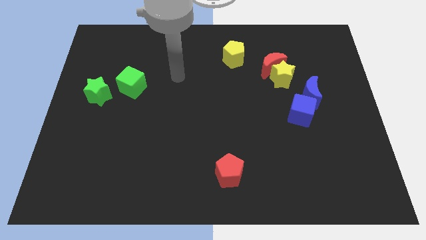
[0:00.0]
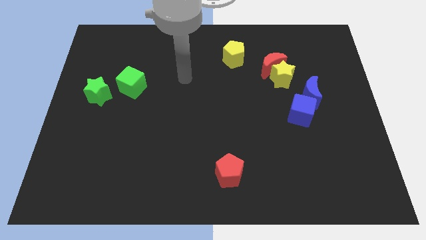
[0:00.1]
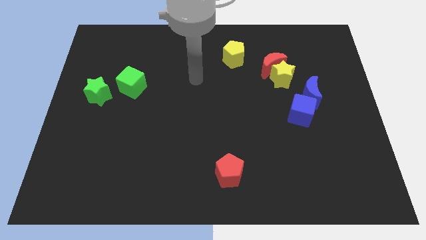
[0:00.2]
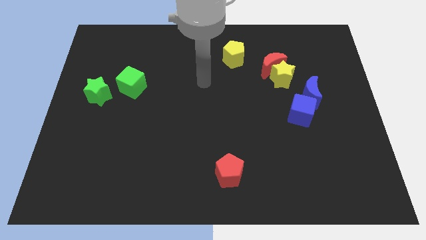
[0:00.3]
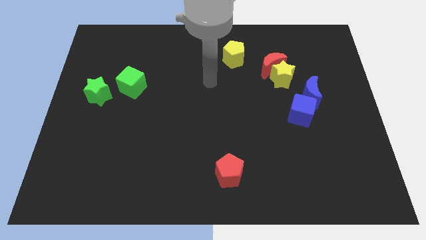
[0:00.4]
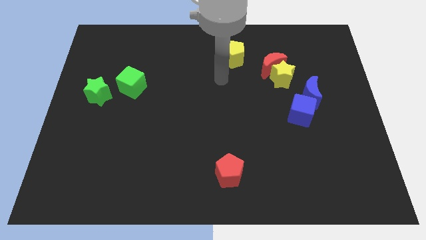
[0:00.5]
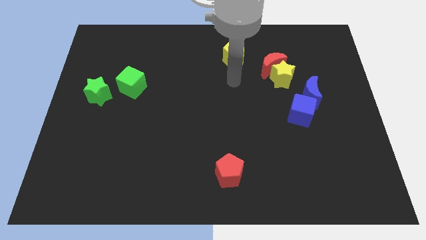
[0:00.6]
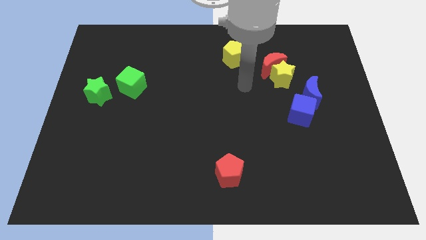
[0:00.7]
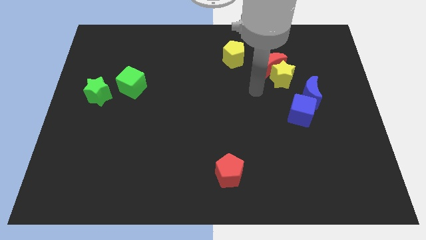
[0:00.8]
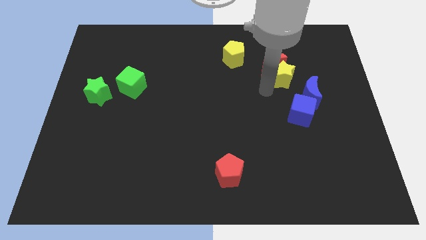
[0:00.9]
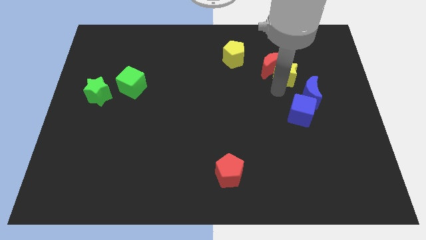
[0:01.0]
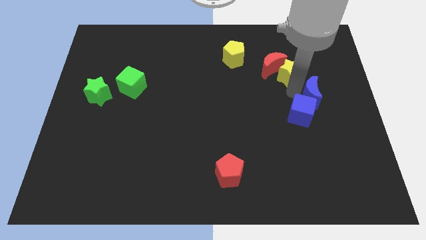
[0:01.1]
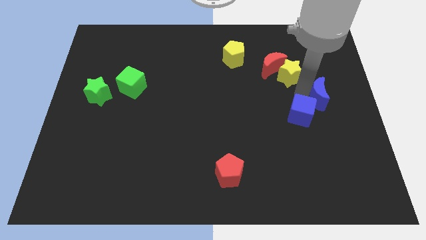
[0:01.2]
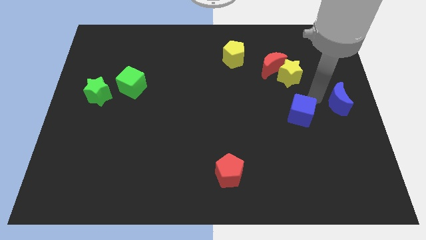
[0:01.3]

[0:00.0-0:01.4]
move the blue cube away from the blue moon

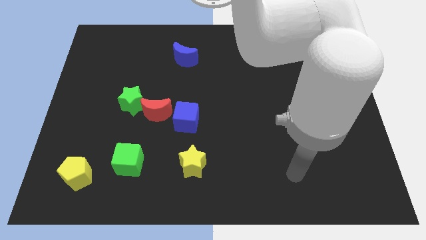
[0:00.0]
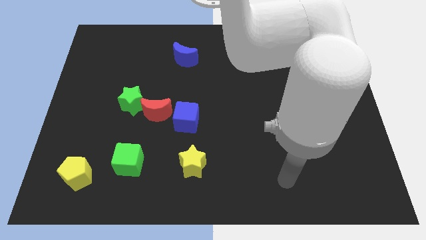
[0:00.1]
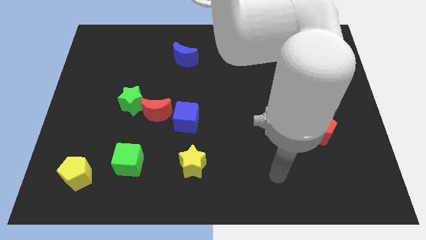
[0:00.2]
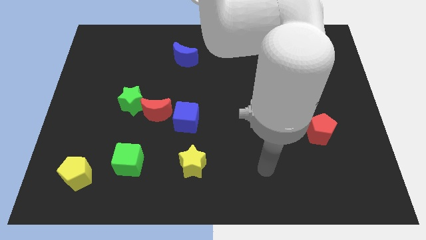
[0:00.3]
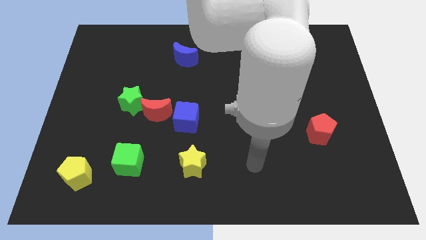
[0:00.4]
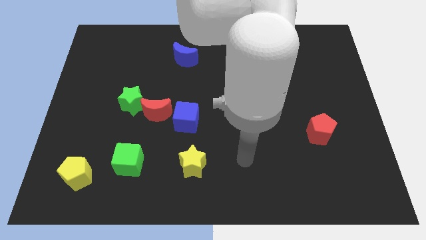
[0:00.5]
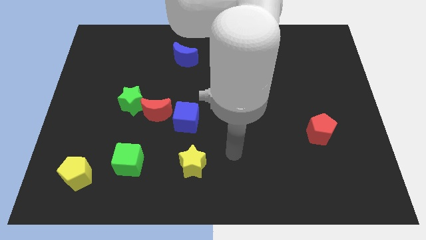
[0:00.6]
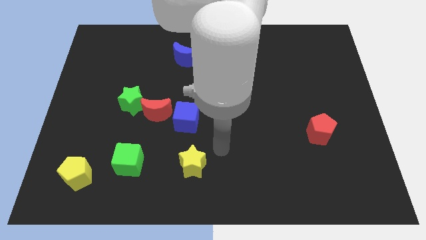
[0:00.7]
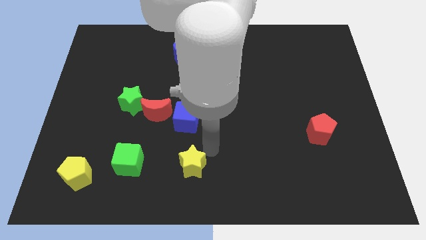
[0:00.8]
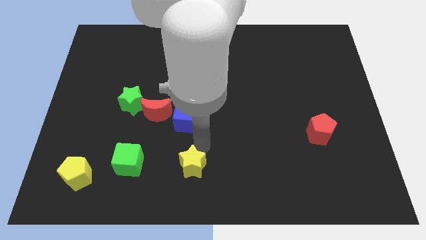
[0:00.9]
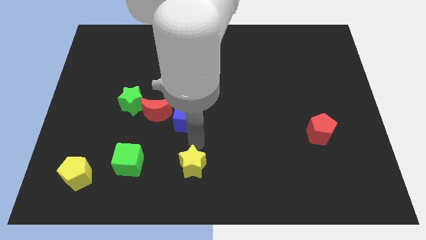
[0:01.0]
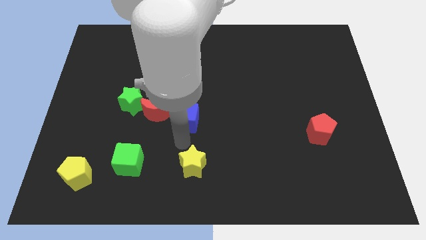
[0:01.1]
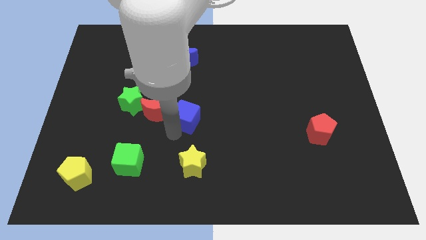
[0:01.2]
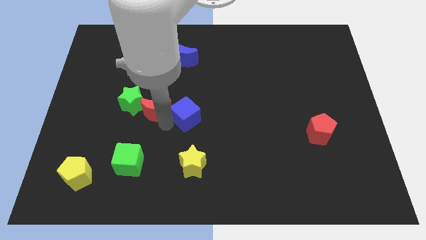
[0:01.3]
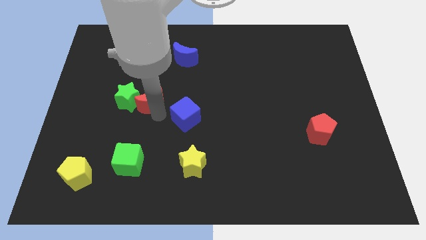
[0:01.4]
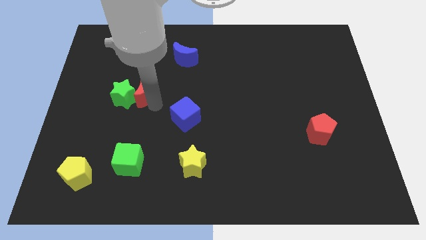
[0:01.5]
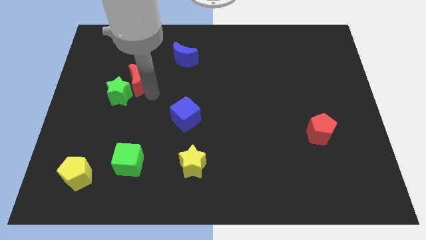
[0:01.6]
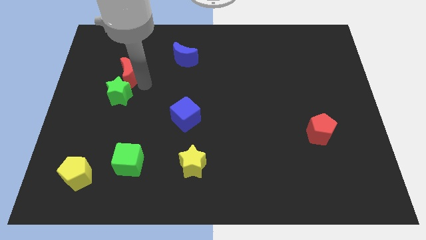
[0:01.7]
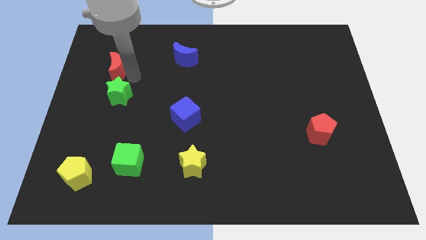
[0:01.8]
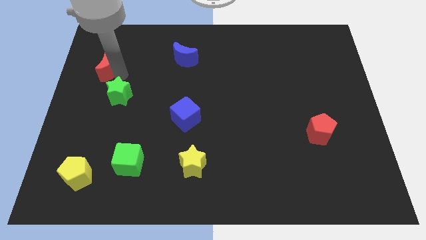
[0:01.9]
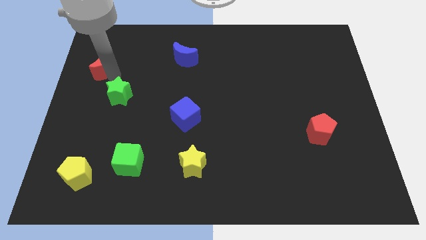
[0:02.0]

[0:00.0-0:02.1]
move the green star away from the red moon

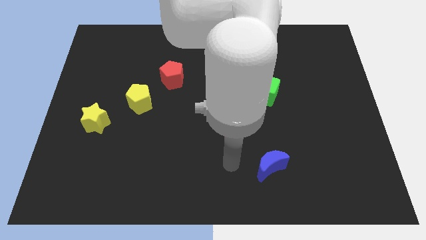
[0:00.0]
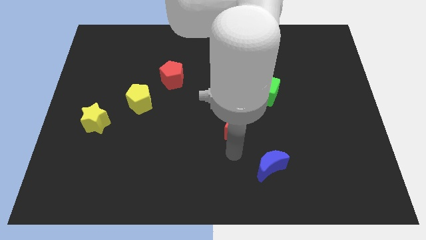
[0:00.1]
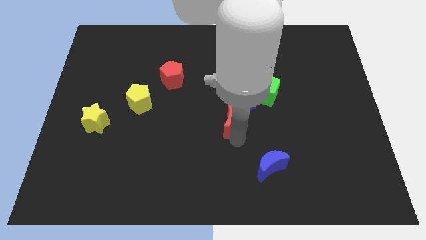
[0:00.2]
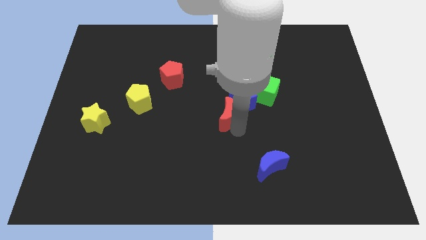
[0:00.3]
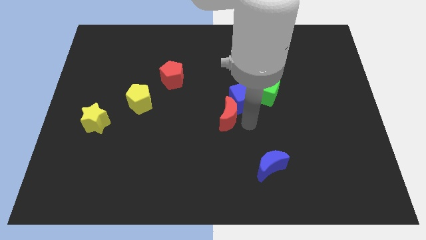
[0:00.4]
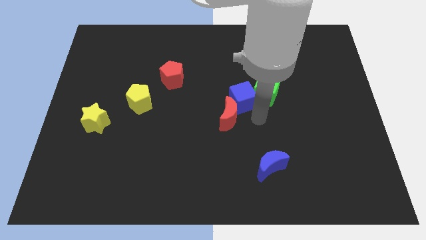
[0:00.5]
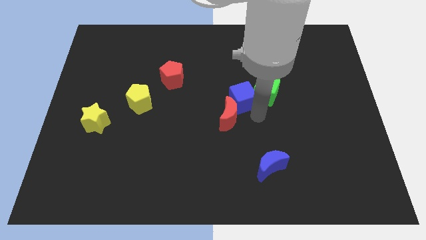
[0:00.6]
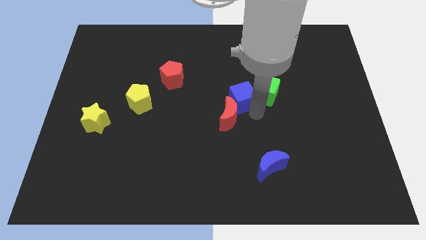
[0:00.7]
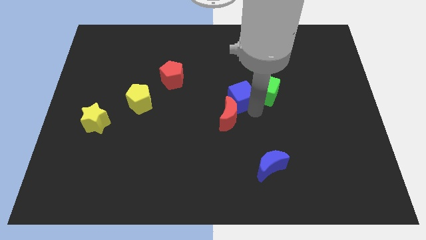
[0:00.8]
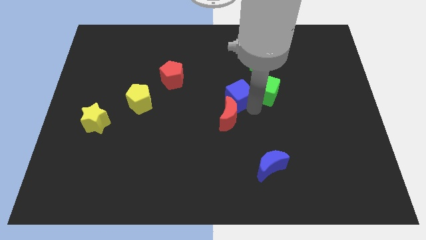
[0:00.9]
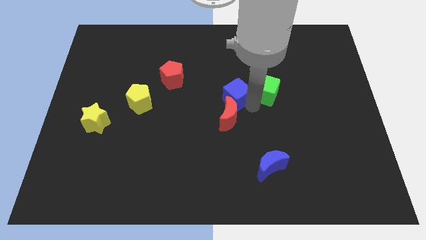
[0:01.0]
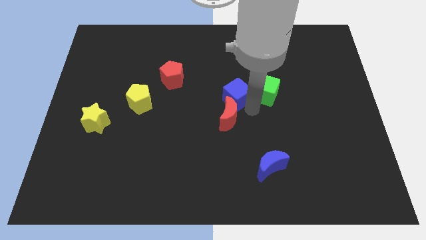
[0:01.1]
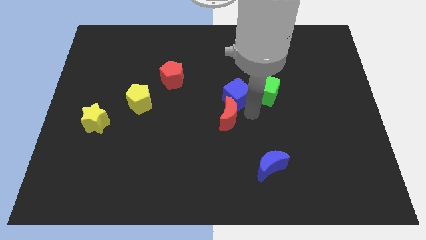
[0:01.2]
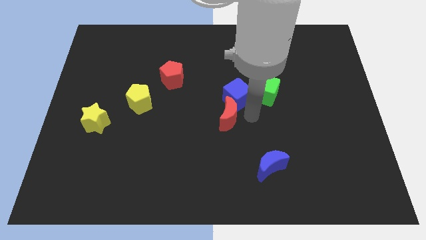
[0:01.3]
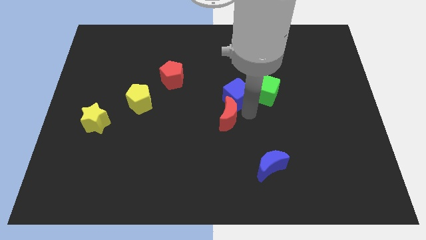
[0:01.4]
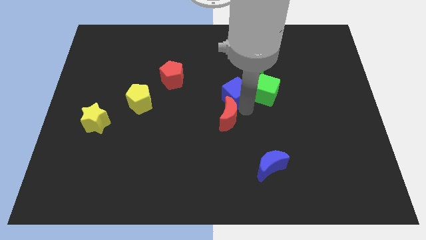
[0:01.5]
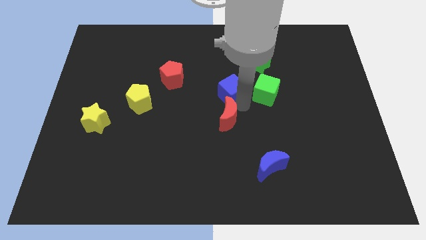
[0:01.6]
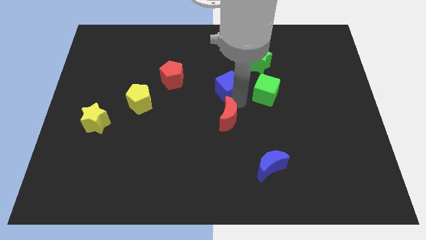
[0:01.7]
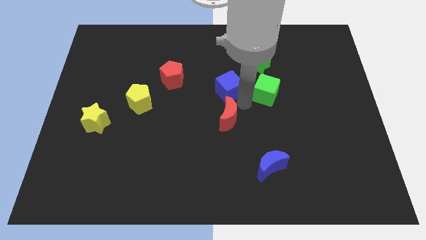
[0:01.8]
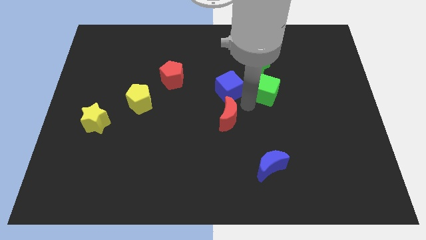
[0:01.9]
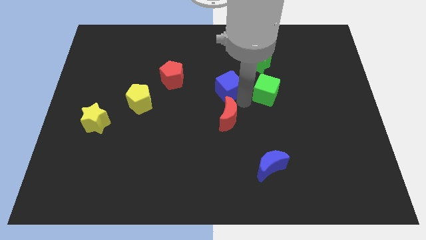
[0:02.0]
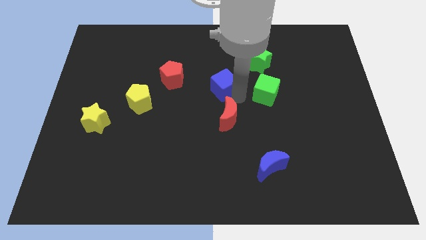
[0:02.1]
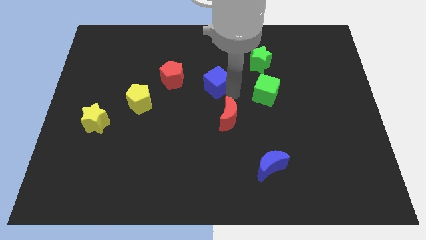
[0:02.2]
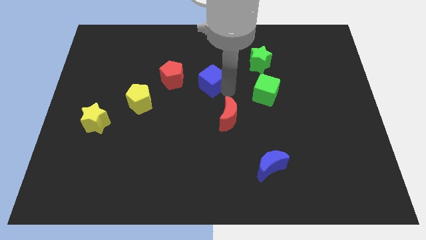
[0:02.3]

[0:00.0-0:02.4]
separate the blue cube from the green cube and red moon

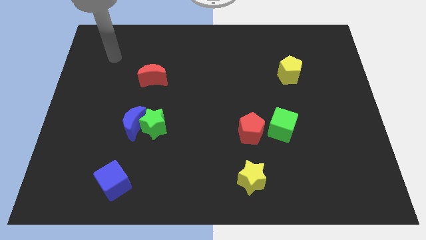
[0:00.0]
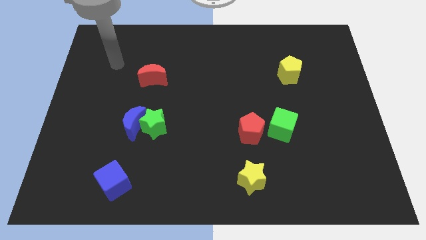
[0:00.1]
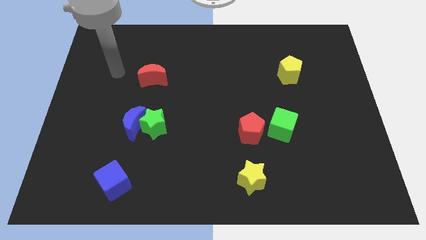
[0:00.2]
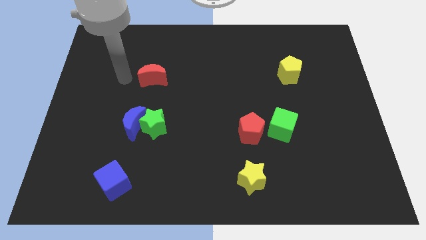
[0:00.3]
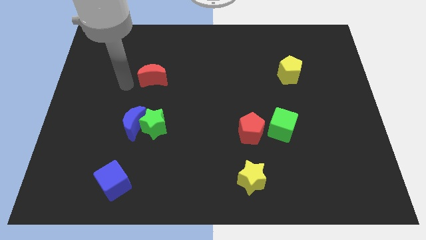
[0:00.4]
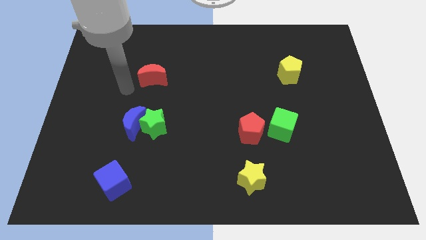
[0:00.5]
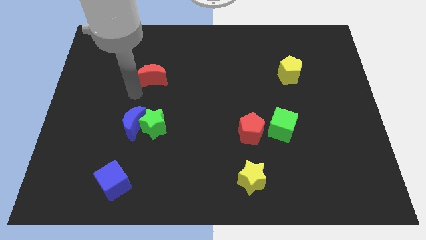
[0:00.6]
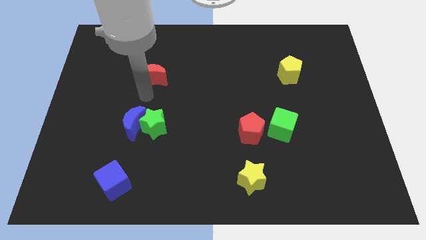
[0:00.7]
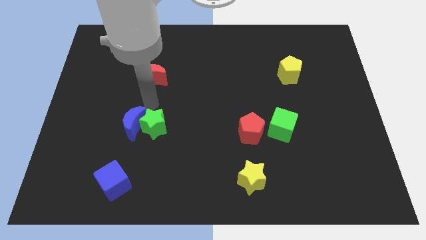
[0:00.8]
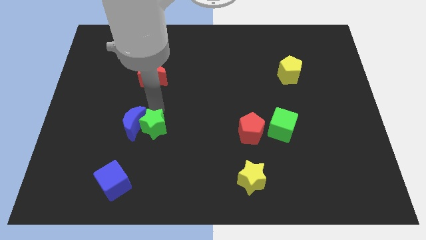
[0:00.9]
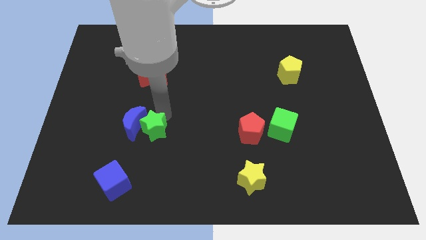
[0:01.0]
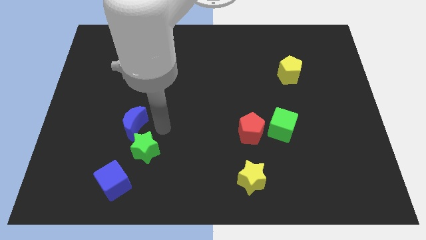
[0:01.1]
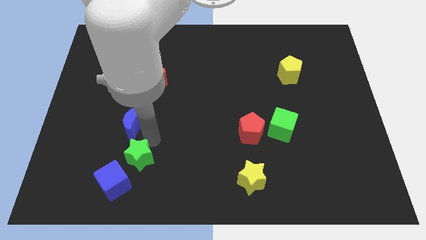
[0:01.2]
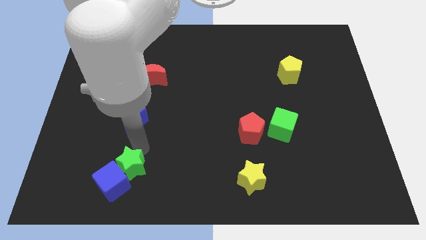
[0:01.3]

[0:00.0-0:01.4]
pull the blue moon apart from the green star

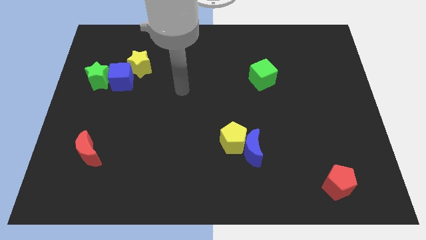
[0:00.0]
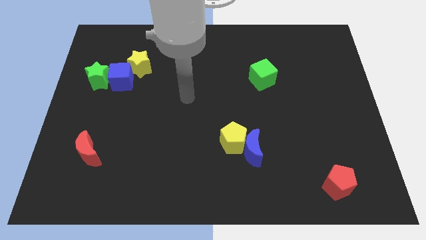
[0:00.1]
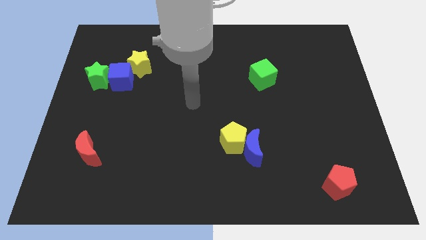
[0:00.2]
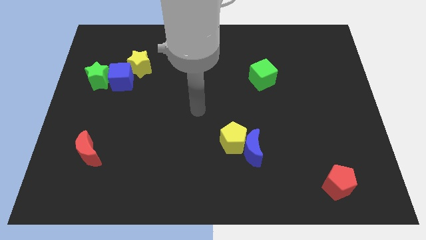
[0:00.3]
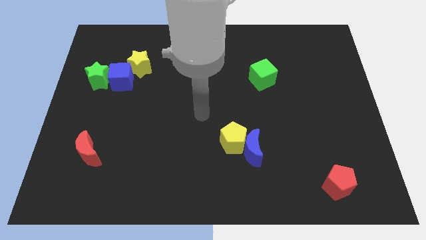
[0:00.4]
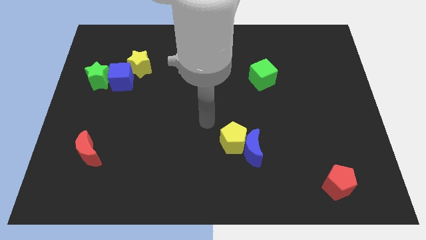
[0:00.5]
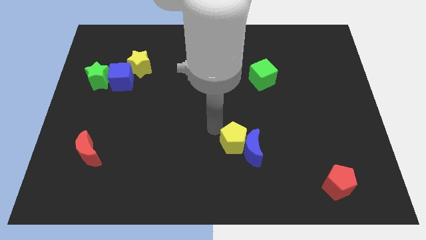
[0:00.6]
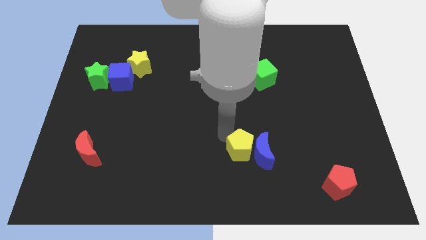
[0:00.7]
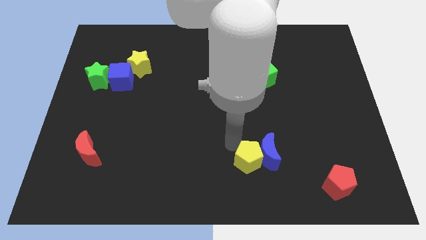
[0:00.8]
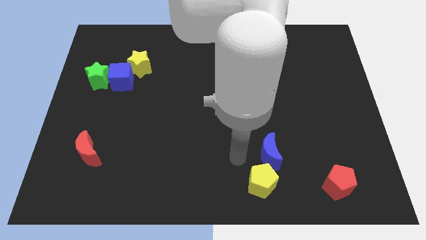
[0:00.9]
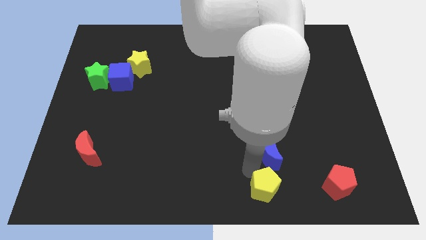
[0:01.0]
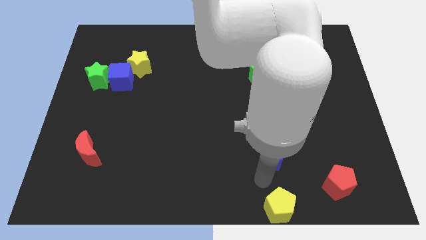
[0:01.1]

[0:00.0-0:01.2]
move the blue moon away from the yellow pentagon

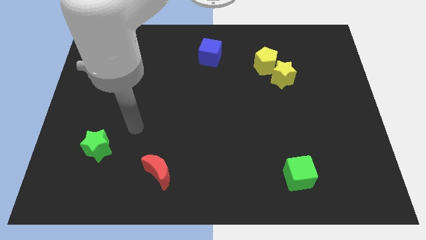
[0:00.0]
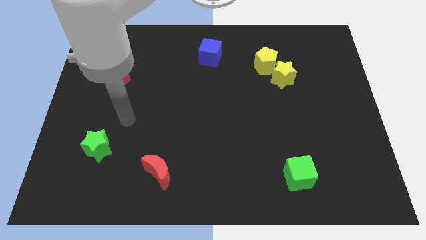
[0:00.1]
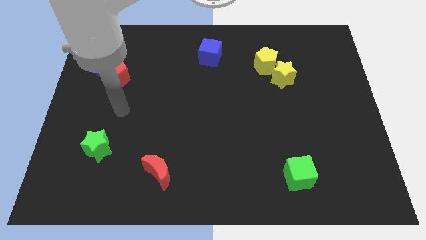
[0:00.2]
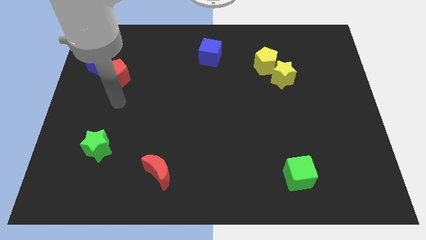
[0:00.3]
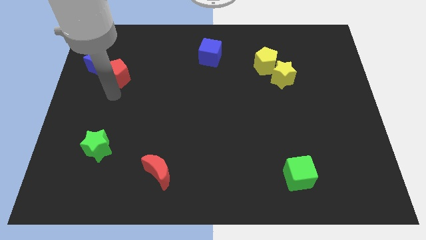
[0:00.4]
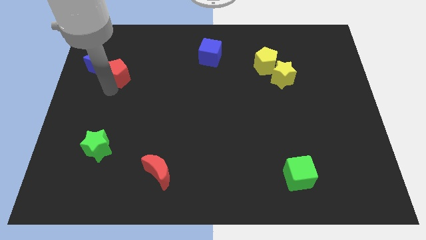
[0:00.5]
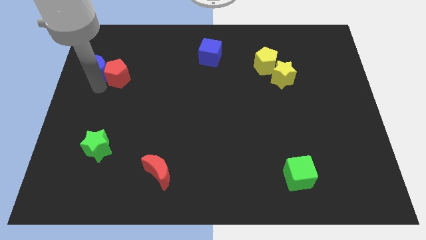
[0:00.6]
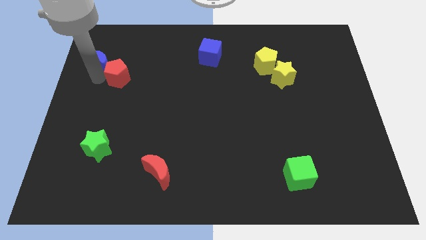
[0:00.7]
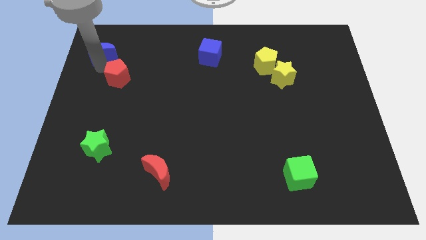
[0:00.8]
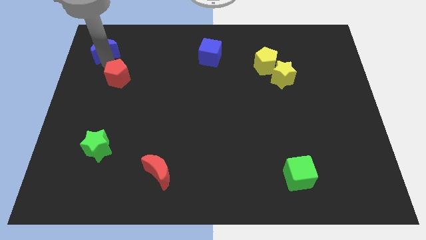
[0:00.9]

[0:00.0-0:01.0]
separate the red pentagon from the blue moon

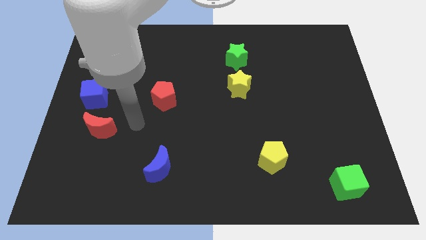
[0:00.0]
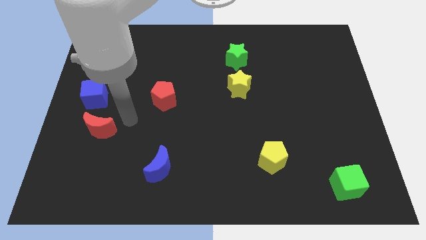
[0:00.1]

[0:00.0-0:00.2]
pull the red moon apart from the blue cube
